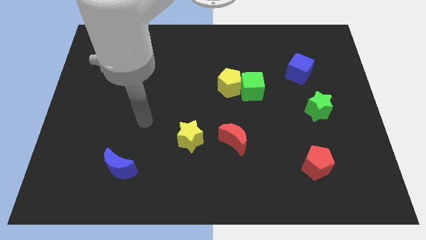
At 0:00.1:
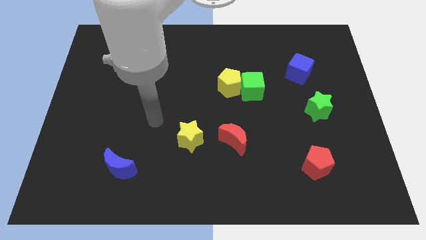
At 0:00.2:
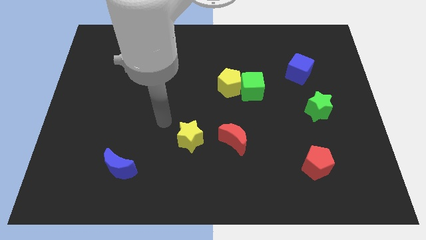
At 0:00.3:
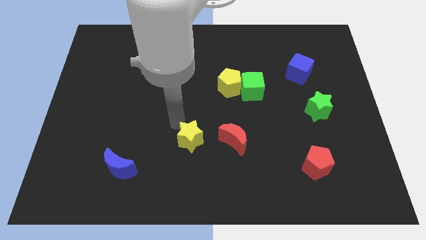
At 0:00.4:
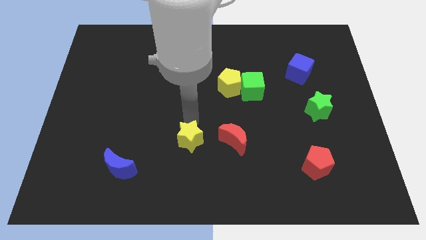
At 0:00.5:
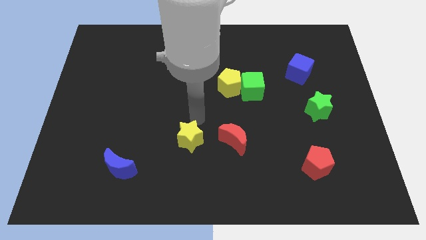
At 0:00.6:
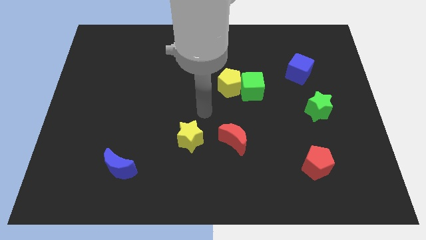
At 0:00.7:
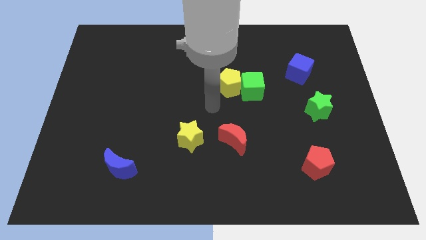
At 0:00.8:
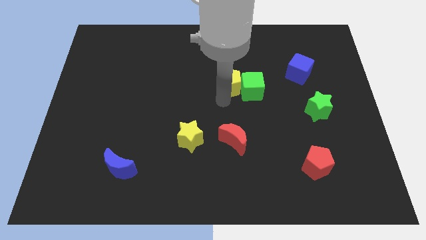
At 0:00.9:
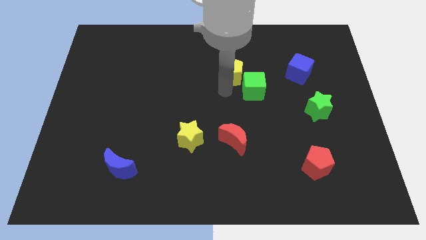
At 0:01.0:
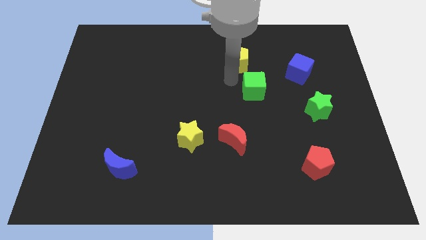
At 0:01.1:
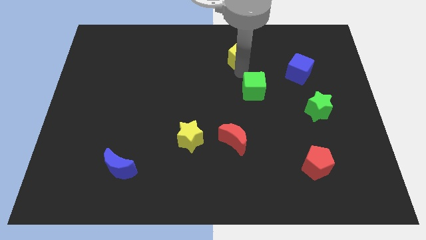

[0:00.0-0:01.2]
separate the green cube from the yellow pentagon

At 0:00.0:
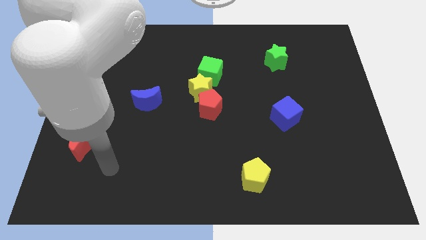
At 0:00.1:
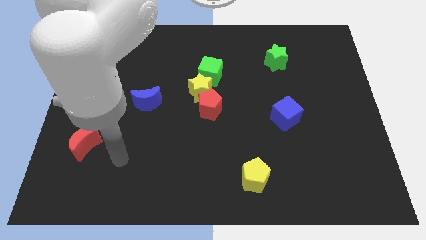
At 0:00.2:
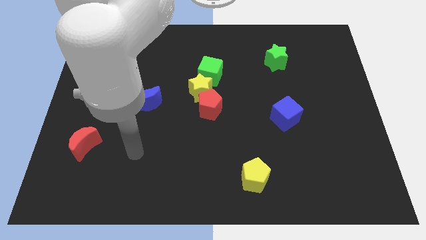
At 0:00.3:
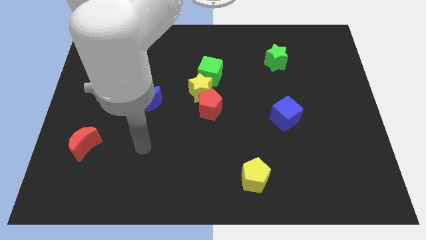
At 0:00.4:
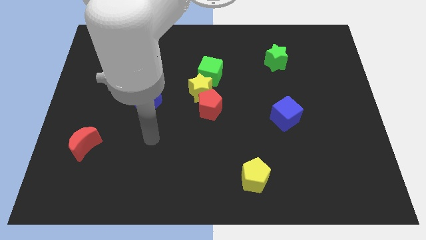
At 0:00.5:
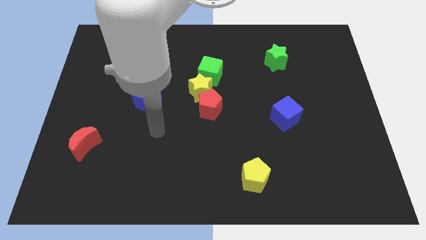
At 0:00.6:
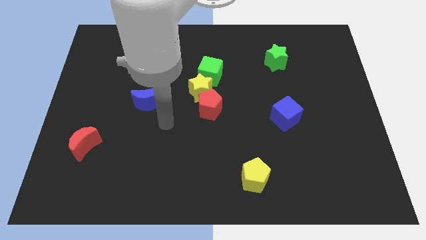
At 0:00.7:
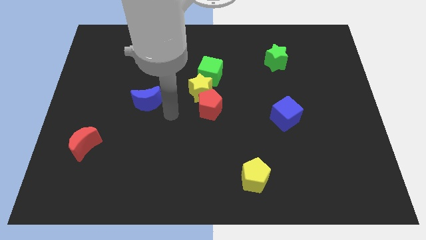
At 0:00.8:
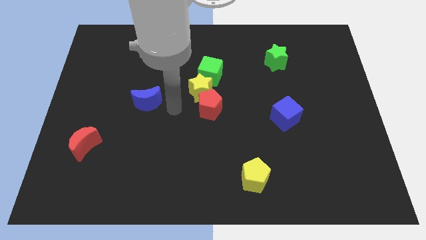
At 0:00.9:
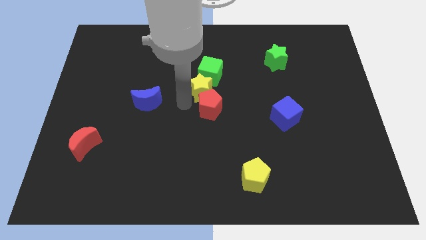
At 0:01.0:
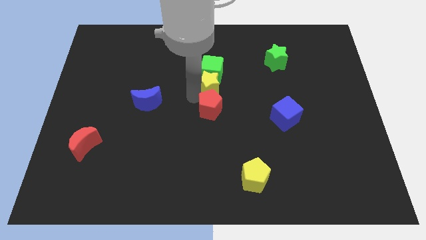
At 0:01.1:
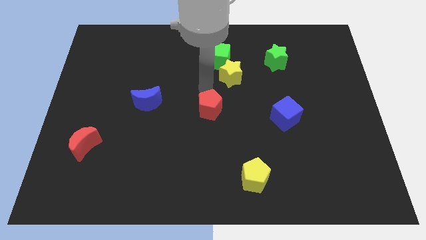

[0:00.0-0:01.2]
separate the red pentagon from the yellow star

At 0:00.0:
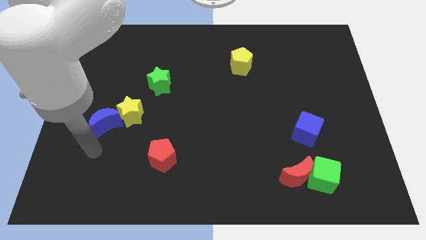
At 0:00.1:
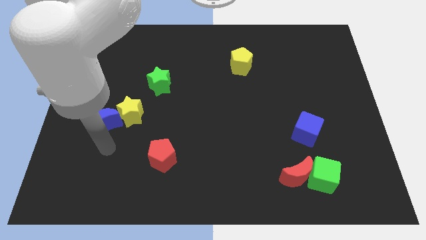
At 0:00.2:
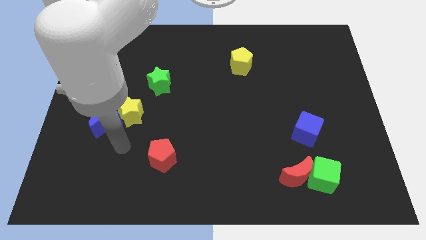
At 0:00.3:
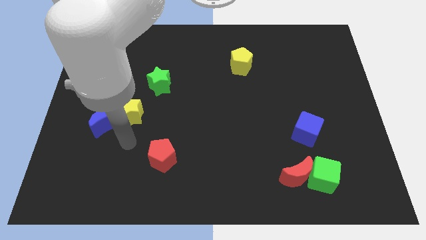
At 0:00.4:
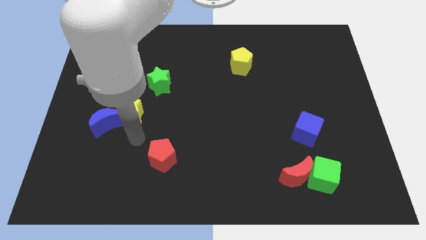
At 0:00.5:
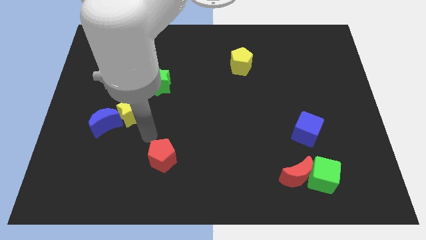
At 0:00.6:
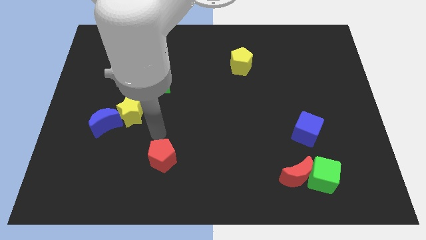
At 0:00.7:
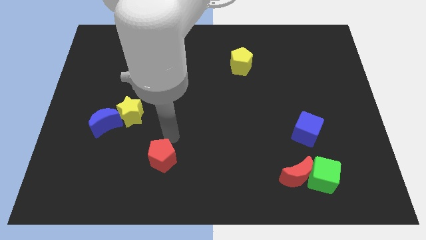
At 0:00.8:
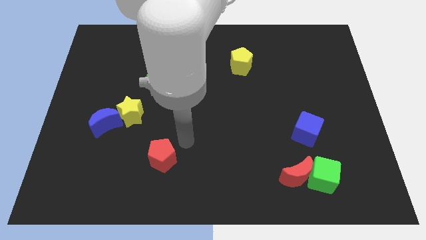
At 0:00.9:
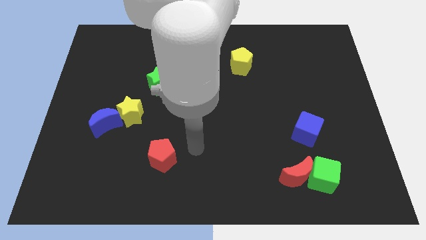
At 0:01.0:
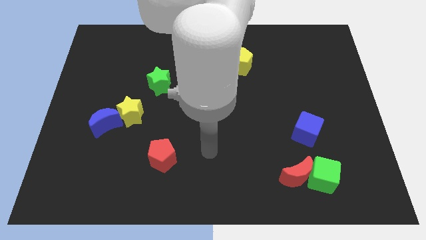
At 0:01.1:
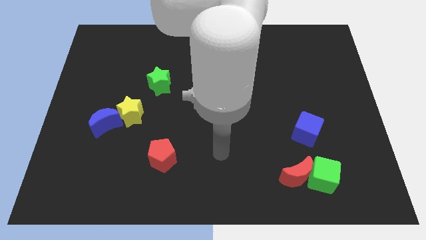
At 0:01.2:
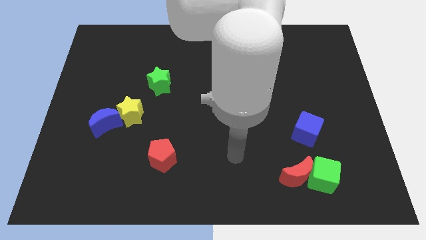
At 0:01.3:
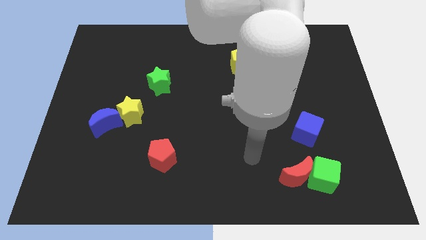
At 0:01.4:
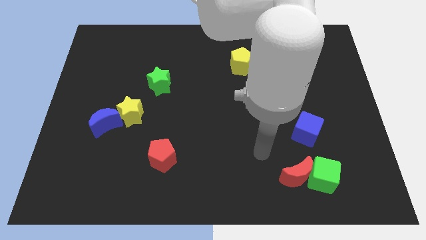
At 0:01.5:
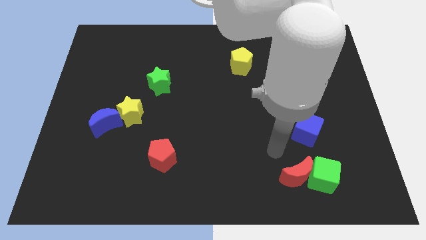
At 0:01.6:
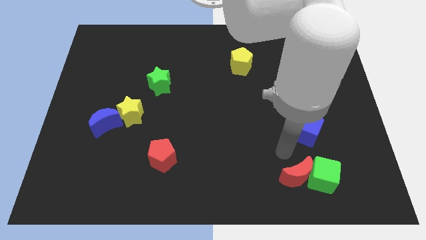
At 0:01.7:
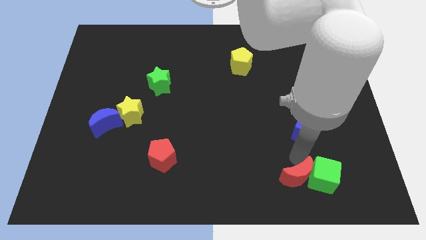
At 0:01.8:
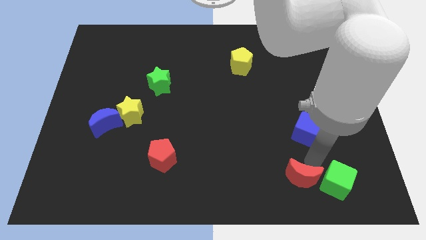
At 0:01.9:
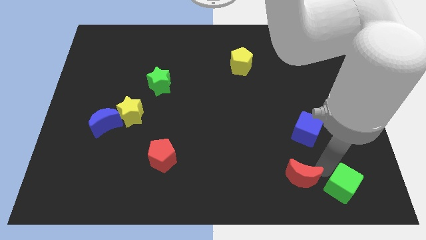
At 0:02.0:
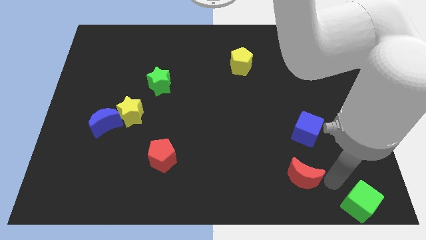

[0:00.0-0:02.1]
pull the red moon apart from the green cube

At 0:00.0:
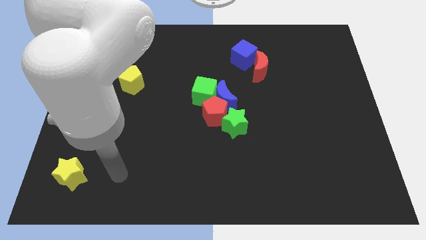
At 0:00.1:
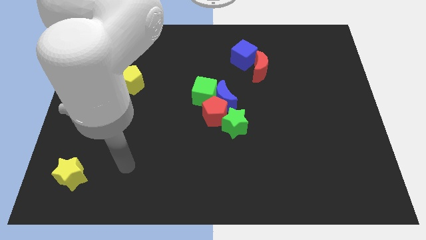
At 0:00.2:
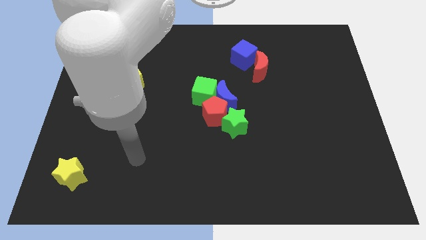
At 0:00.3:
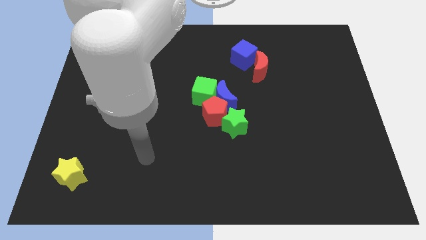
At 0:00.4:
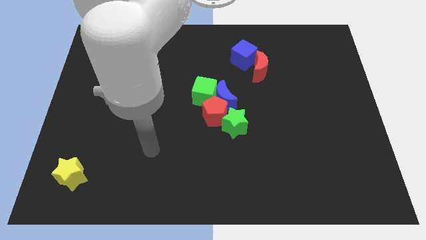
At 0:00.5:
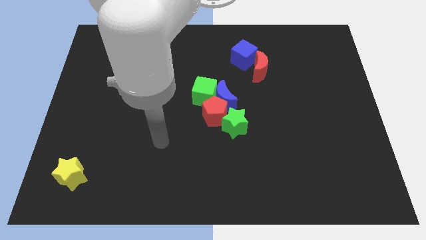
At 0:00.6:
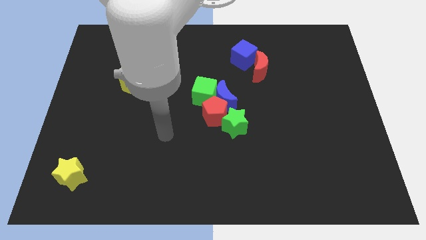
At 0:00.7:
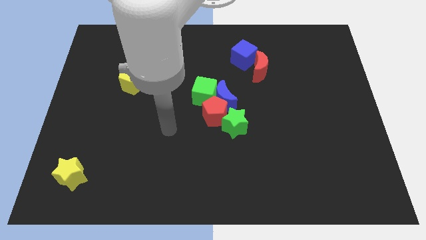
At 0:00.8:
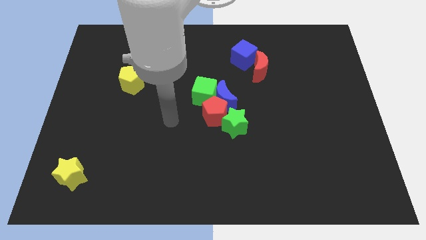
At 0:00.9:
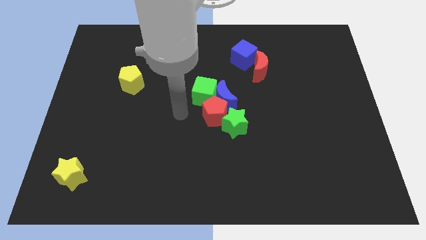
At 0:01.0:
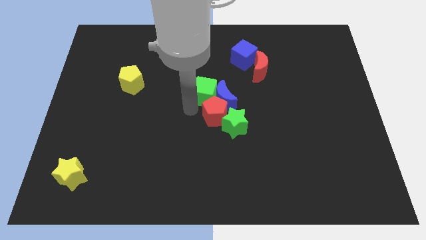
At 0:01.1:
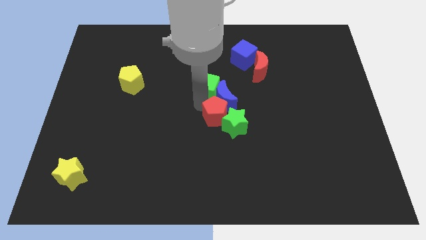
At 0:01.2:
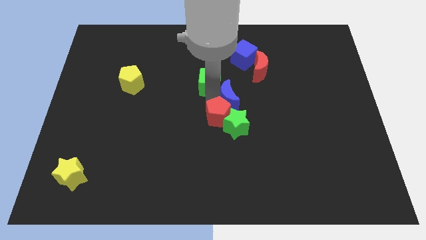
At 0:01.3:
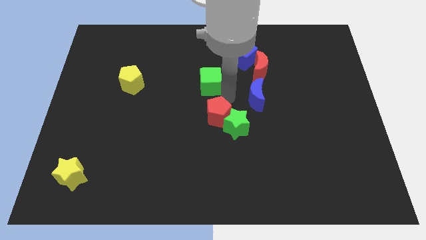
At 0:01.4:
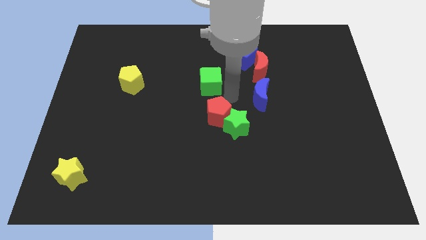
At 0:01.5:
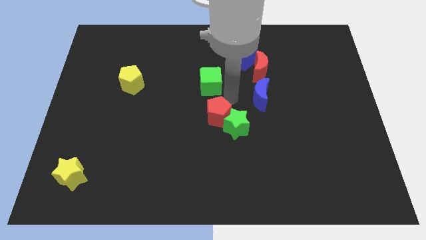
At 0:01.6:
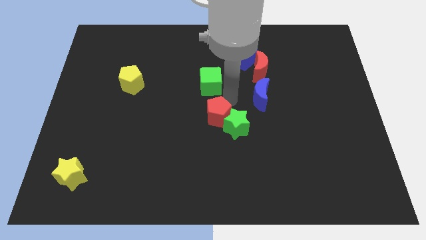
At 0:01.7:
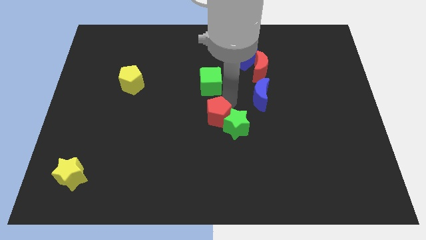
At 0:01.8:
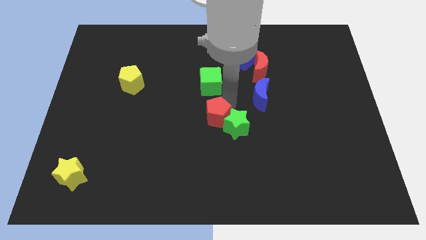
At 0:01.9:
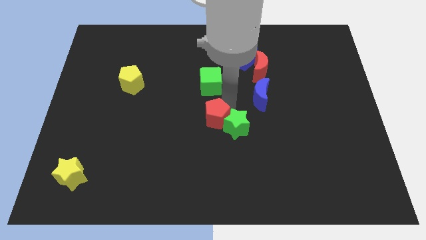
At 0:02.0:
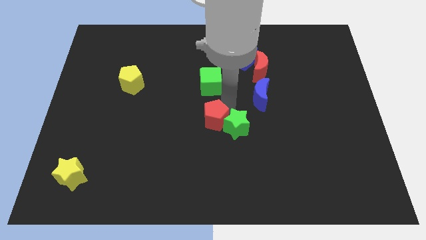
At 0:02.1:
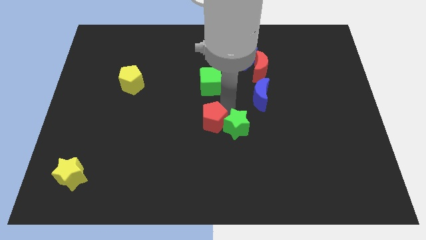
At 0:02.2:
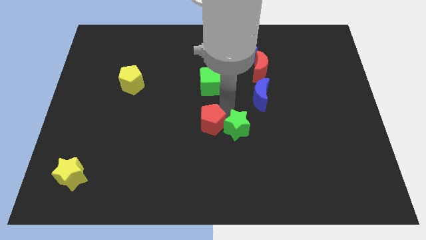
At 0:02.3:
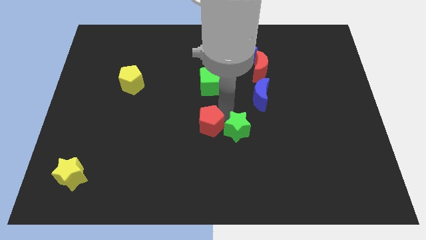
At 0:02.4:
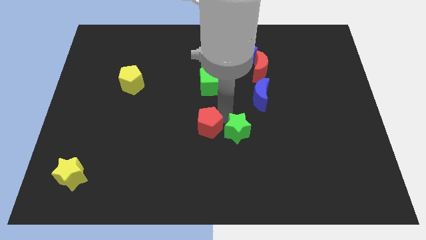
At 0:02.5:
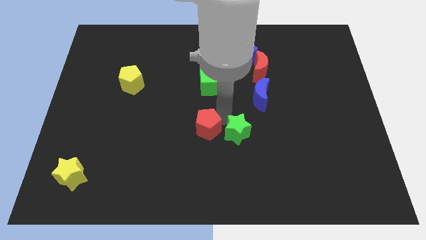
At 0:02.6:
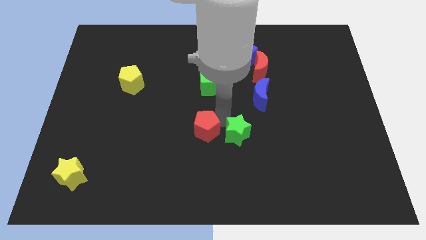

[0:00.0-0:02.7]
move the red pentagon away from the blue moon, green star, and green cube

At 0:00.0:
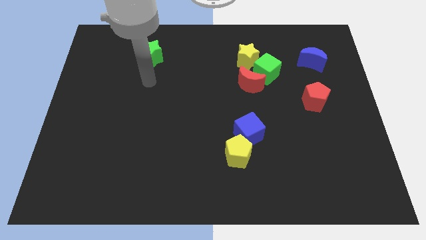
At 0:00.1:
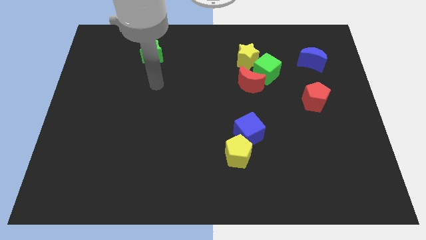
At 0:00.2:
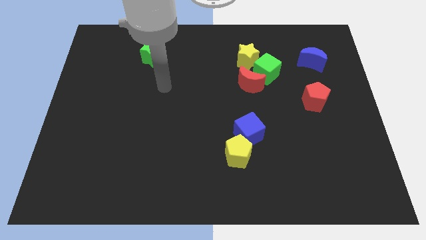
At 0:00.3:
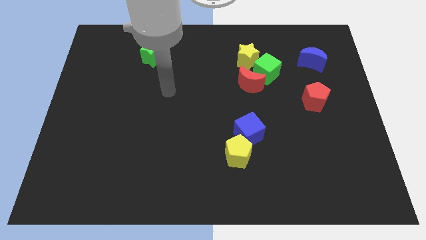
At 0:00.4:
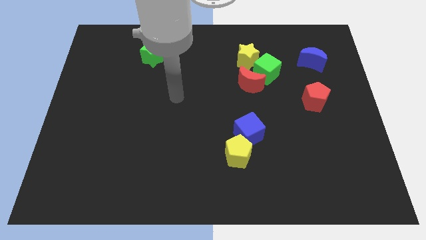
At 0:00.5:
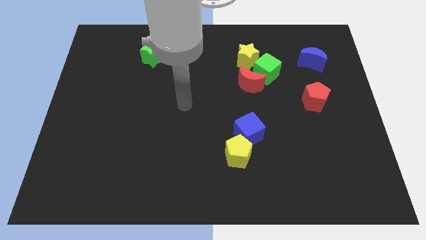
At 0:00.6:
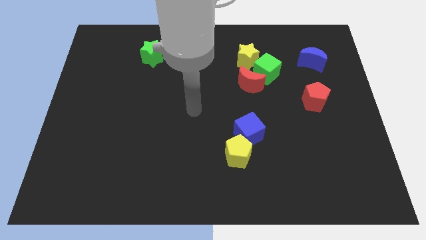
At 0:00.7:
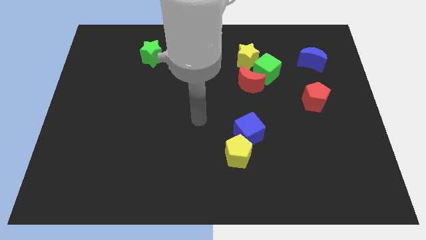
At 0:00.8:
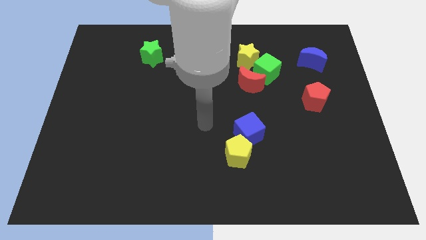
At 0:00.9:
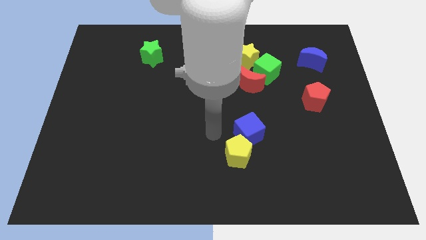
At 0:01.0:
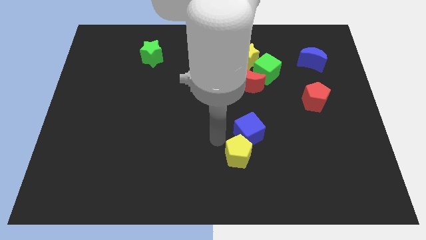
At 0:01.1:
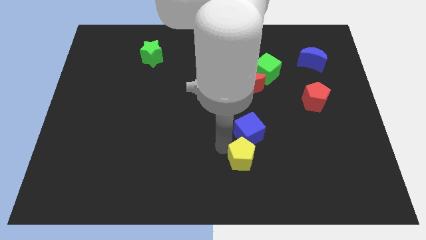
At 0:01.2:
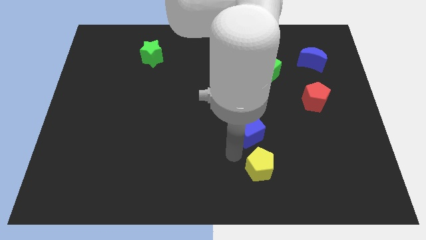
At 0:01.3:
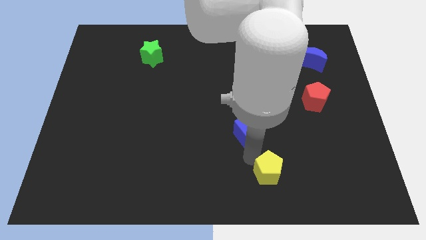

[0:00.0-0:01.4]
pull the blue cube apart from the yellow pentagon

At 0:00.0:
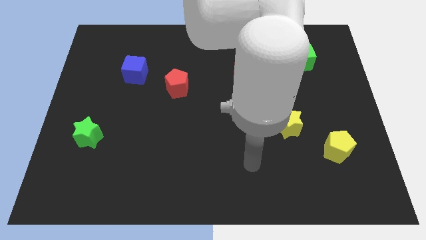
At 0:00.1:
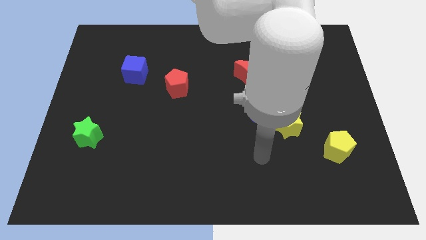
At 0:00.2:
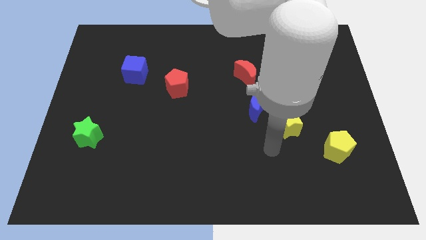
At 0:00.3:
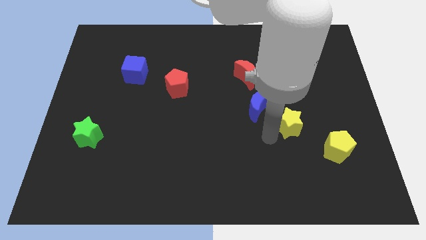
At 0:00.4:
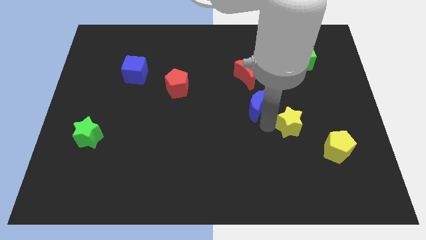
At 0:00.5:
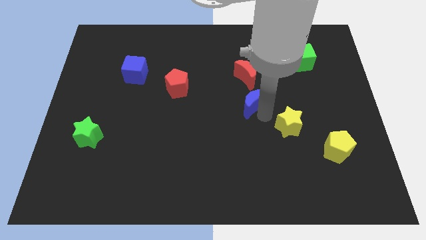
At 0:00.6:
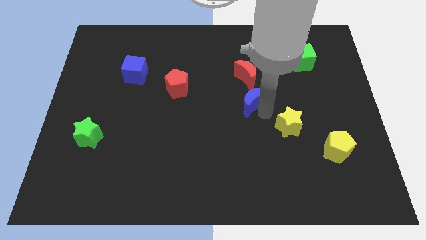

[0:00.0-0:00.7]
separate the yellow star from the blue moon
